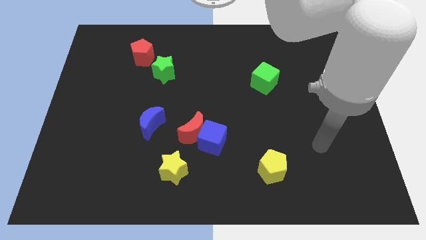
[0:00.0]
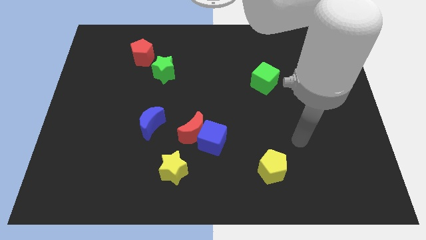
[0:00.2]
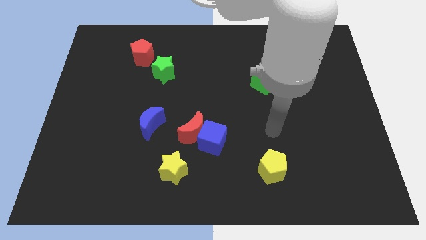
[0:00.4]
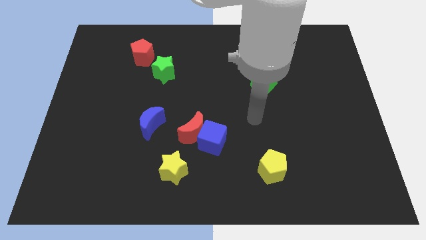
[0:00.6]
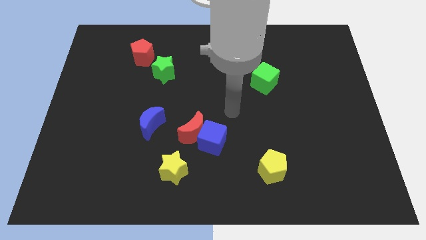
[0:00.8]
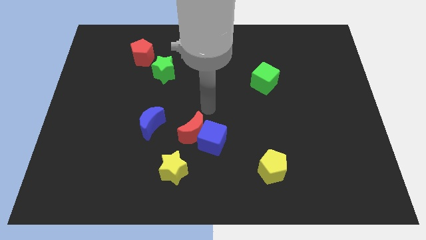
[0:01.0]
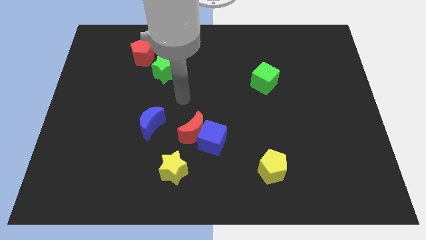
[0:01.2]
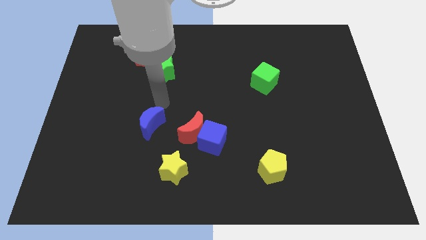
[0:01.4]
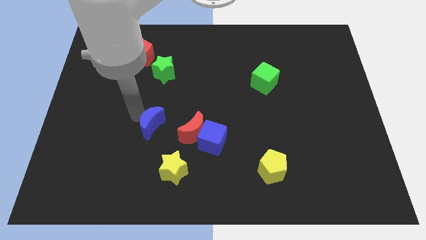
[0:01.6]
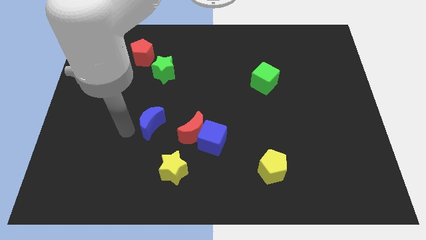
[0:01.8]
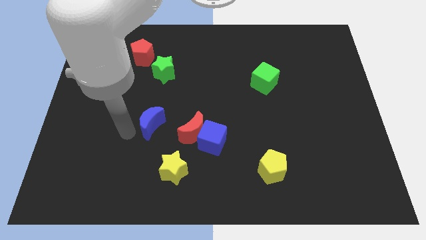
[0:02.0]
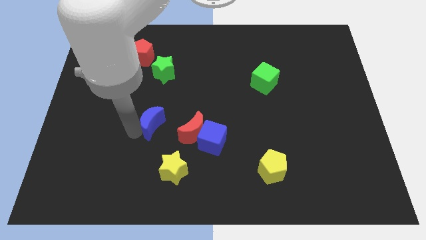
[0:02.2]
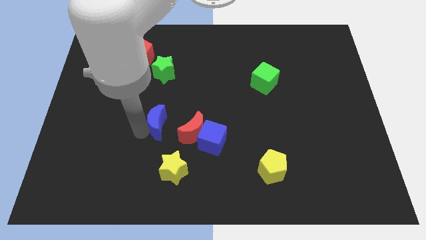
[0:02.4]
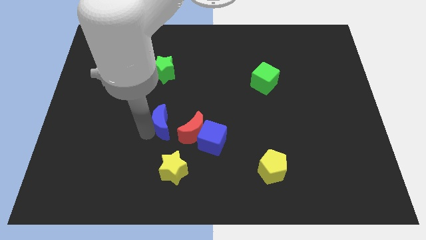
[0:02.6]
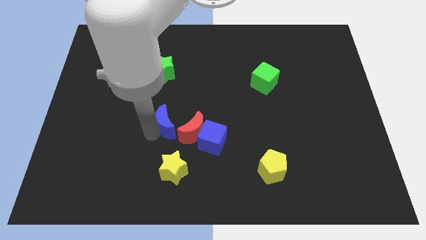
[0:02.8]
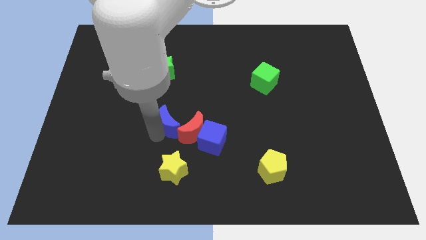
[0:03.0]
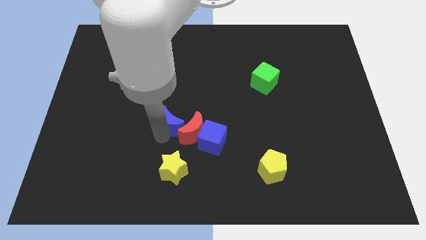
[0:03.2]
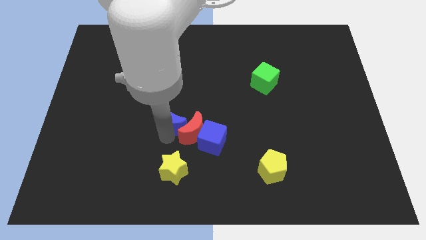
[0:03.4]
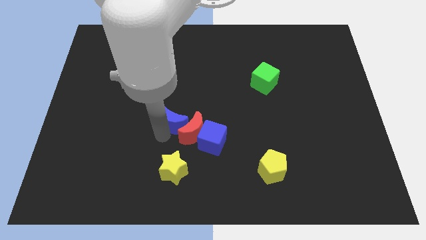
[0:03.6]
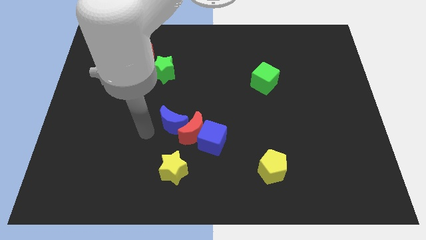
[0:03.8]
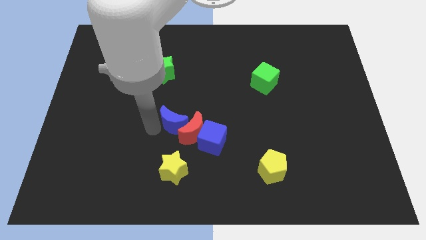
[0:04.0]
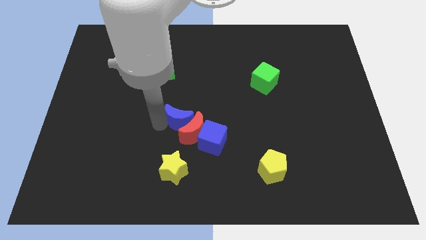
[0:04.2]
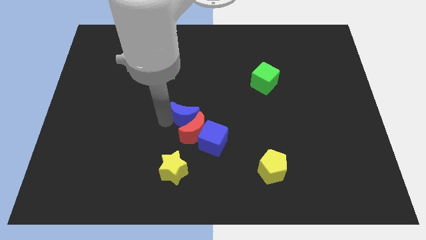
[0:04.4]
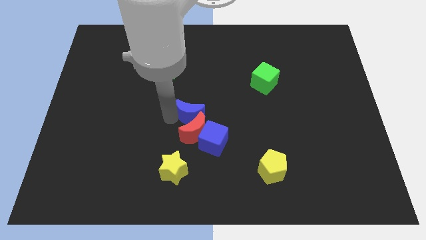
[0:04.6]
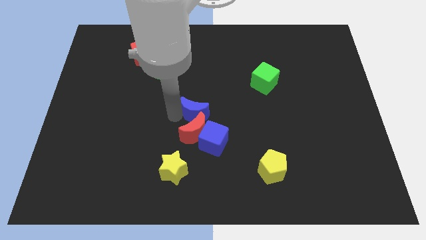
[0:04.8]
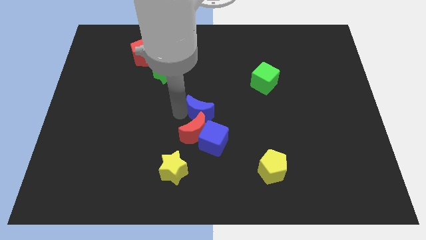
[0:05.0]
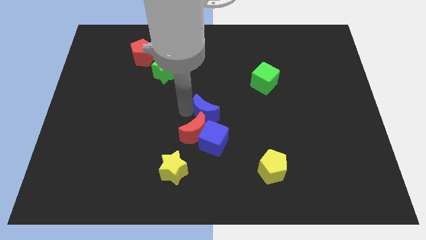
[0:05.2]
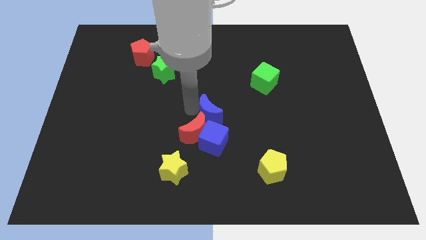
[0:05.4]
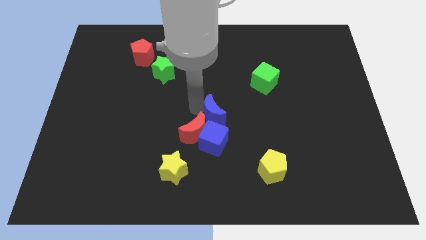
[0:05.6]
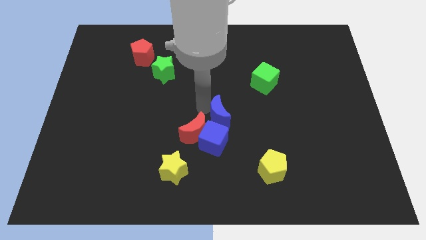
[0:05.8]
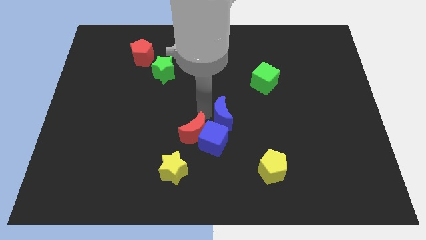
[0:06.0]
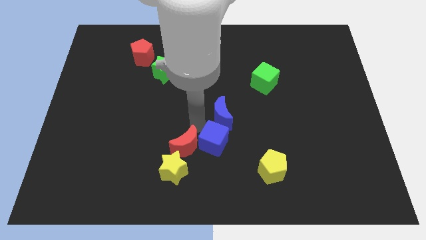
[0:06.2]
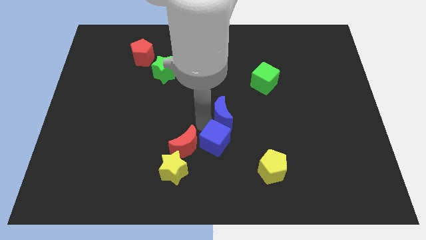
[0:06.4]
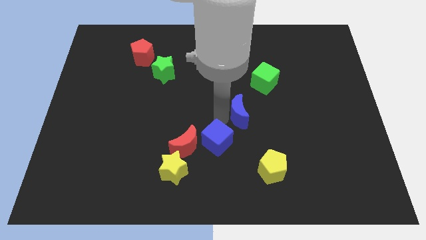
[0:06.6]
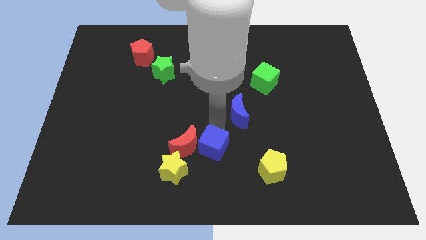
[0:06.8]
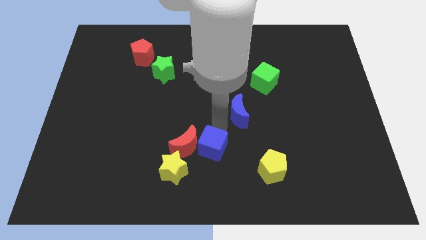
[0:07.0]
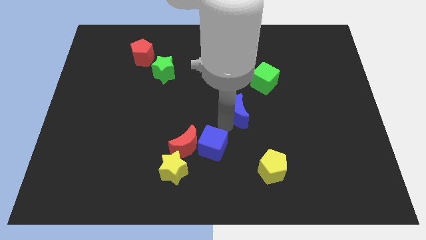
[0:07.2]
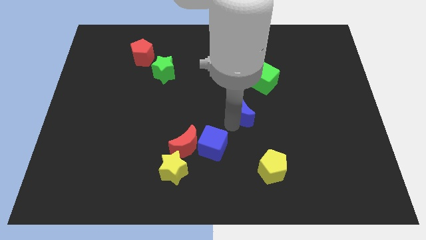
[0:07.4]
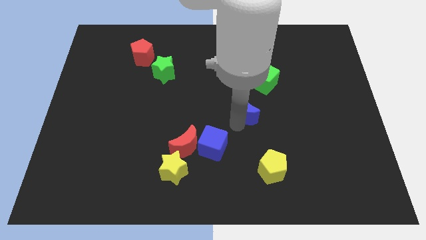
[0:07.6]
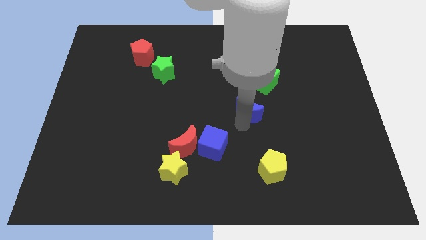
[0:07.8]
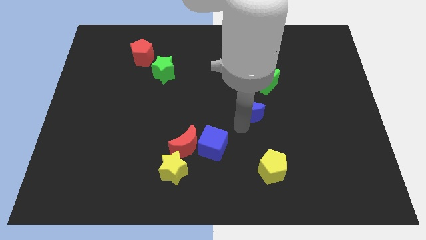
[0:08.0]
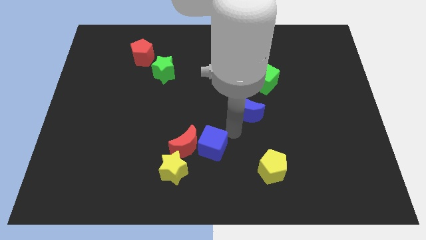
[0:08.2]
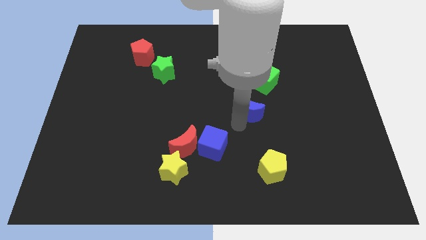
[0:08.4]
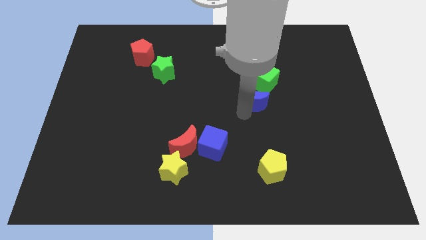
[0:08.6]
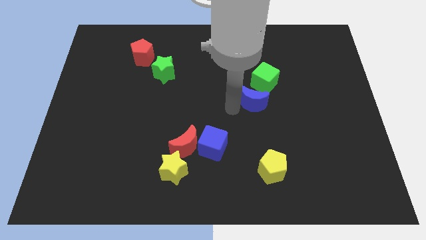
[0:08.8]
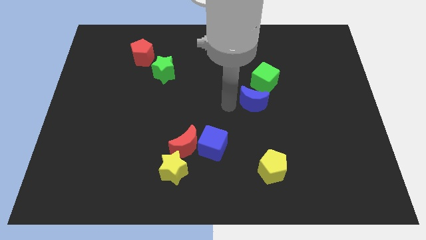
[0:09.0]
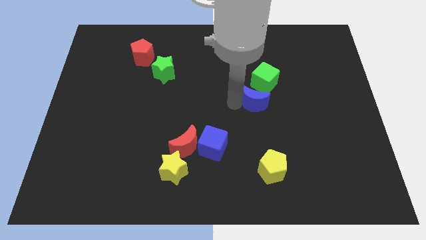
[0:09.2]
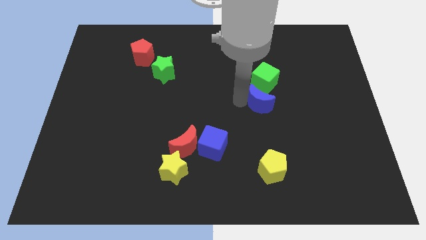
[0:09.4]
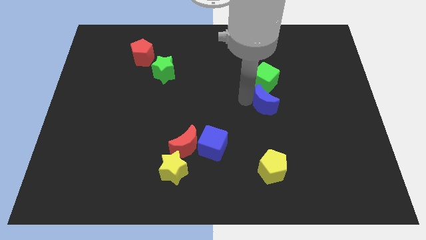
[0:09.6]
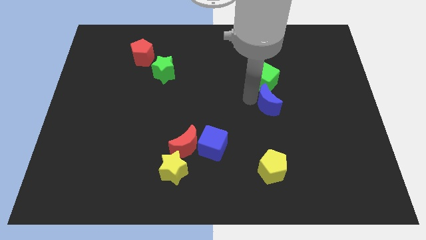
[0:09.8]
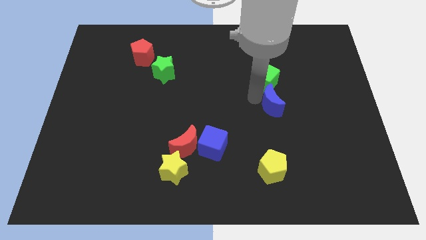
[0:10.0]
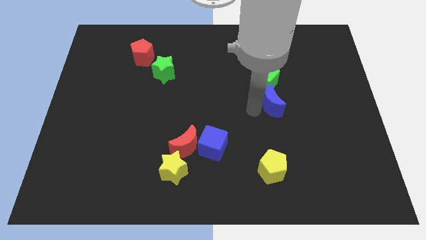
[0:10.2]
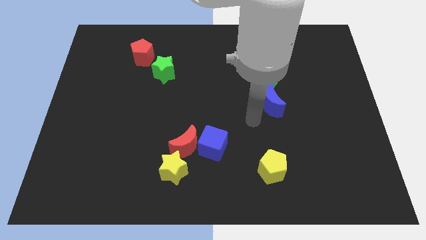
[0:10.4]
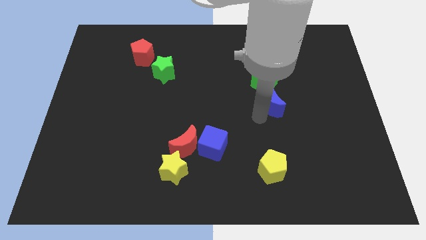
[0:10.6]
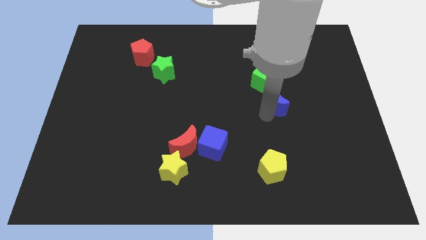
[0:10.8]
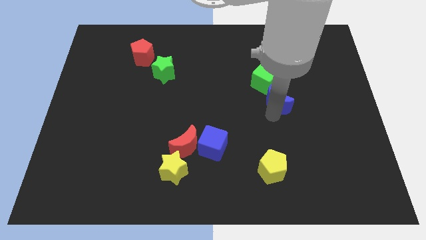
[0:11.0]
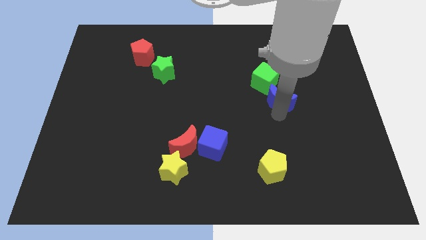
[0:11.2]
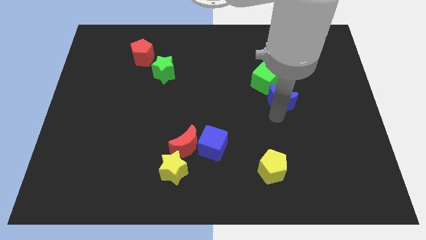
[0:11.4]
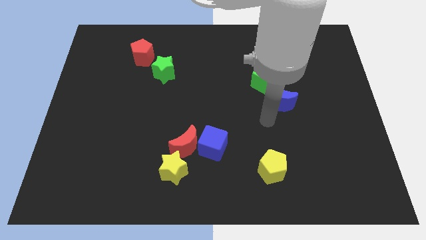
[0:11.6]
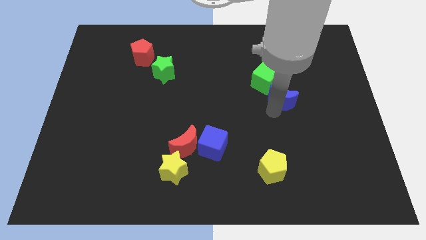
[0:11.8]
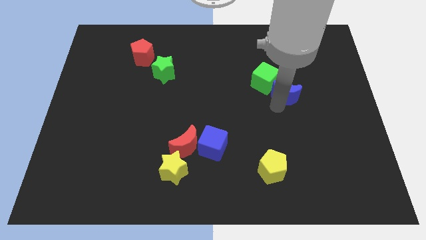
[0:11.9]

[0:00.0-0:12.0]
put the blue moon to the right side of the green cube
